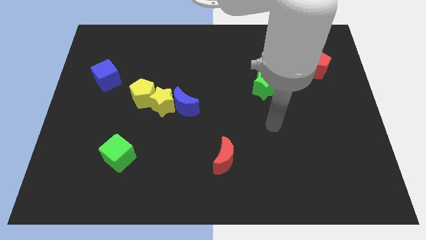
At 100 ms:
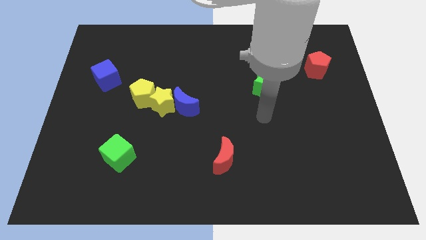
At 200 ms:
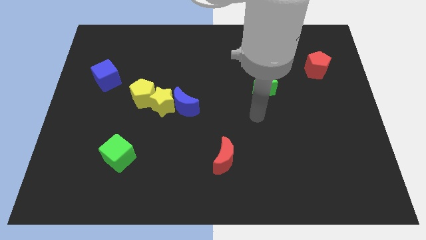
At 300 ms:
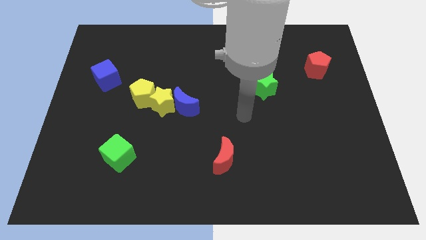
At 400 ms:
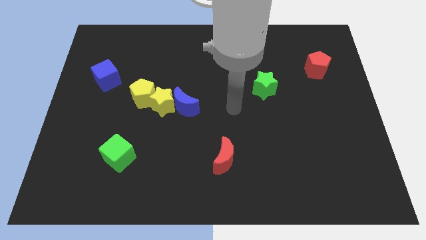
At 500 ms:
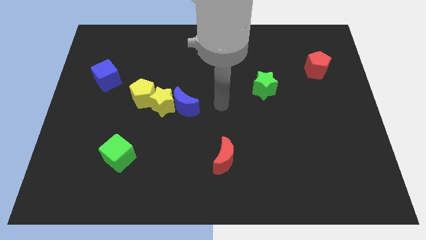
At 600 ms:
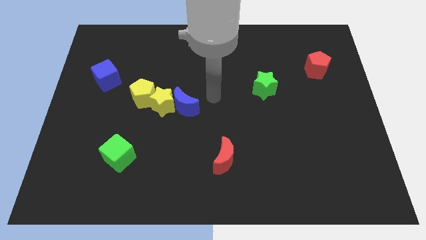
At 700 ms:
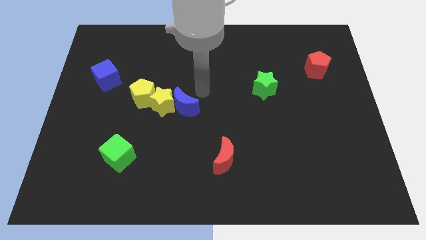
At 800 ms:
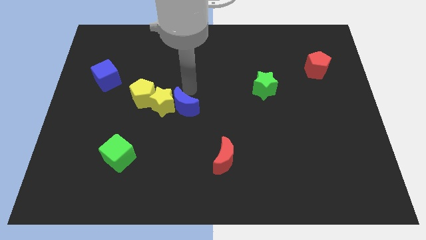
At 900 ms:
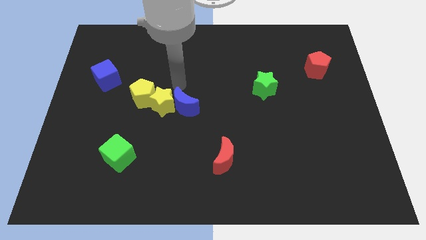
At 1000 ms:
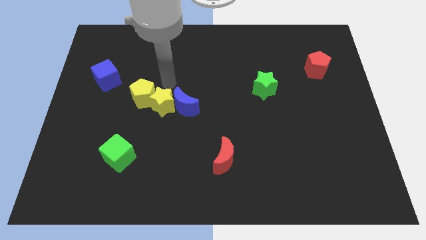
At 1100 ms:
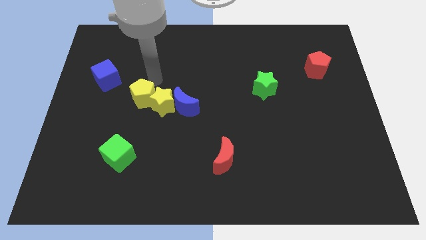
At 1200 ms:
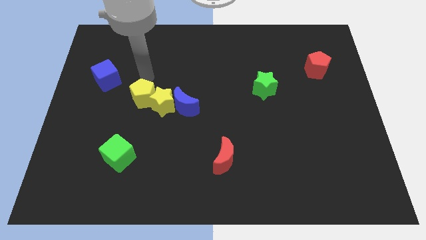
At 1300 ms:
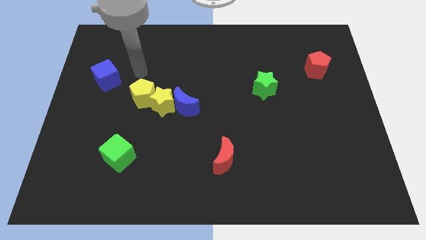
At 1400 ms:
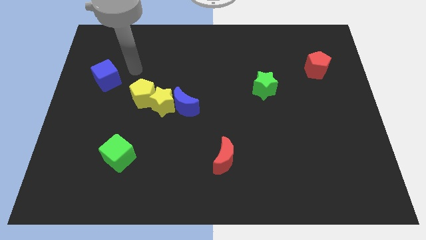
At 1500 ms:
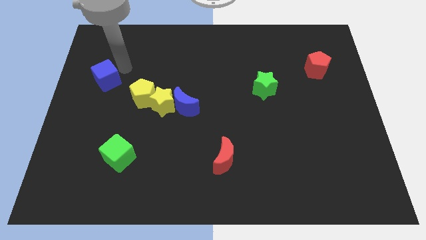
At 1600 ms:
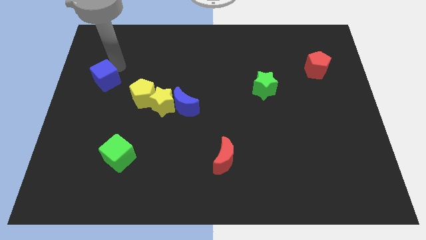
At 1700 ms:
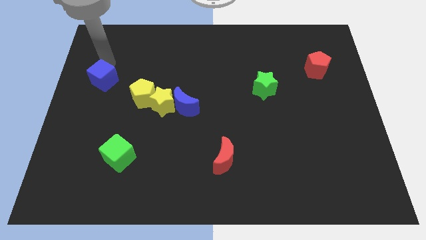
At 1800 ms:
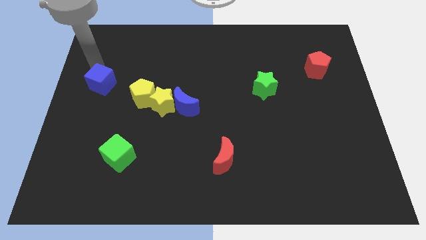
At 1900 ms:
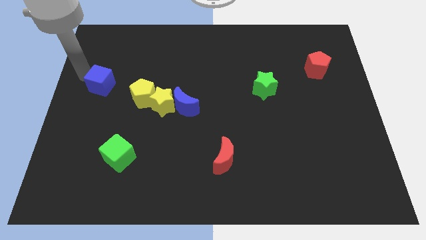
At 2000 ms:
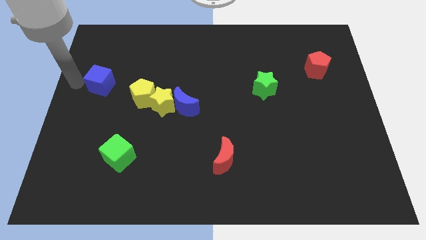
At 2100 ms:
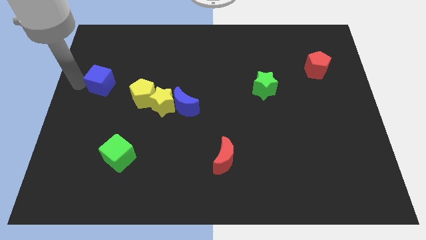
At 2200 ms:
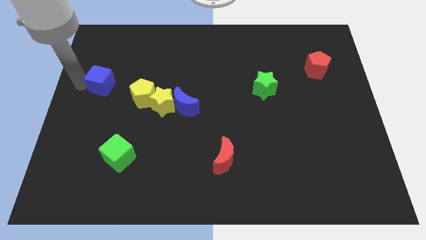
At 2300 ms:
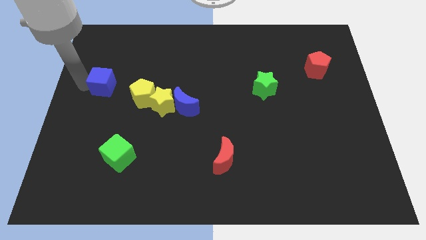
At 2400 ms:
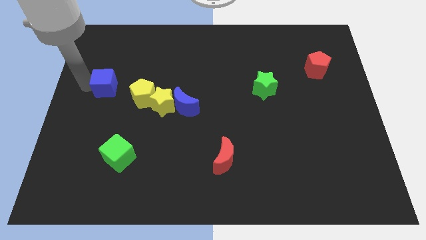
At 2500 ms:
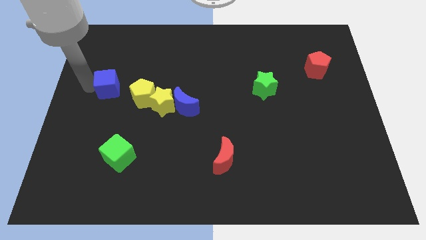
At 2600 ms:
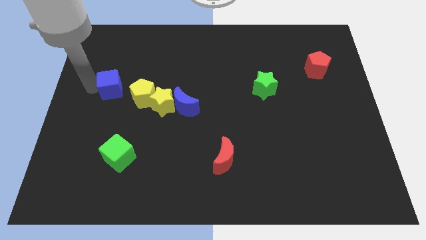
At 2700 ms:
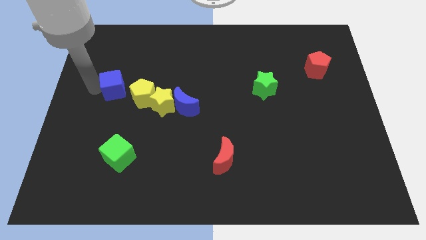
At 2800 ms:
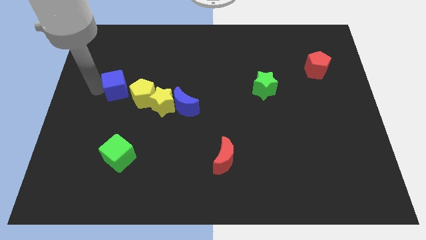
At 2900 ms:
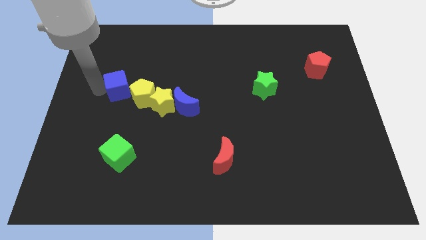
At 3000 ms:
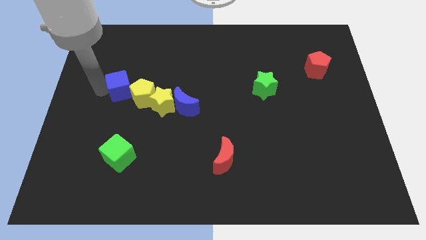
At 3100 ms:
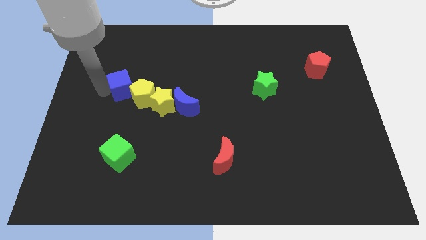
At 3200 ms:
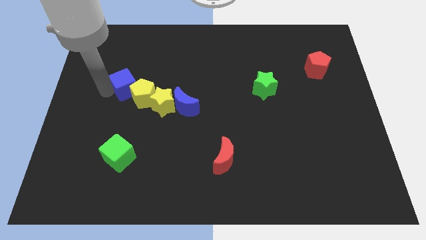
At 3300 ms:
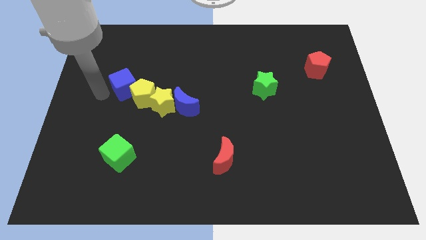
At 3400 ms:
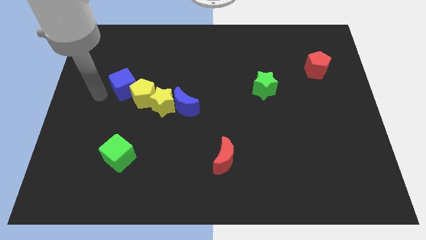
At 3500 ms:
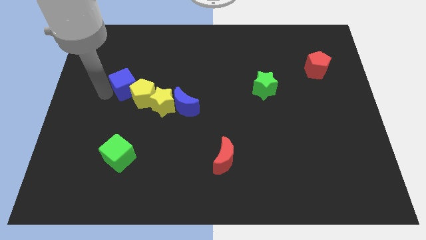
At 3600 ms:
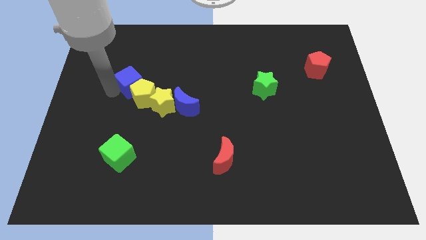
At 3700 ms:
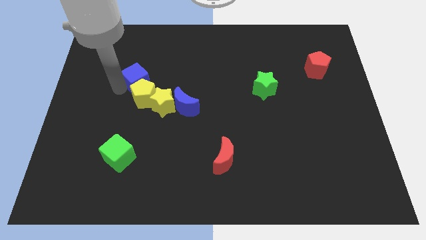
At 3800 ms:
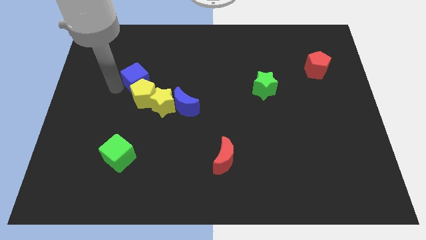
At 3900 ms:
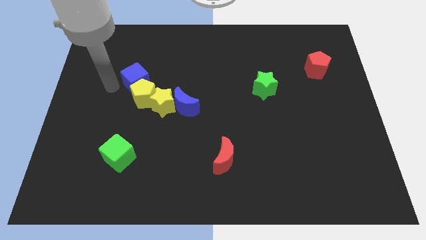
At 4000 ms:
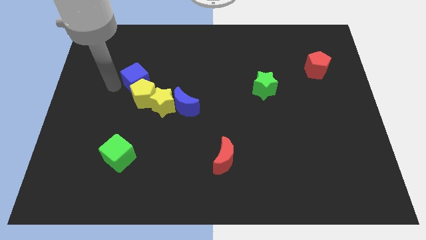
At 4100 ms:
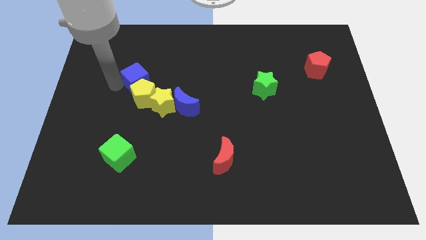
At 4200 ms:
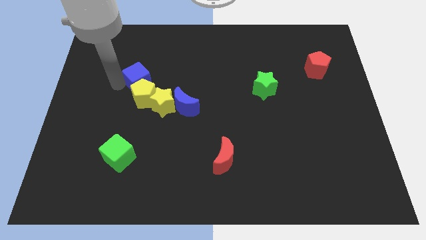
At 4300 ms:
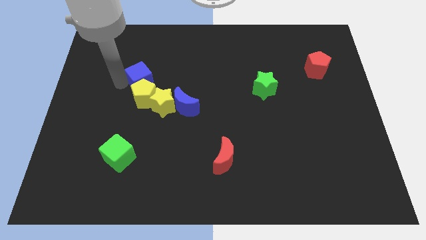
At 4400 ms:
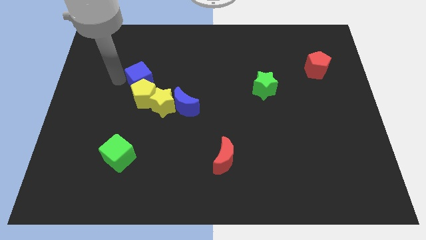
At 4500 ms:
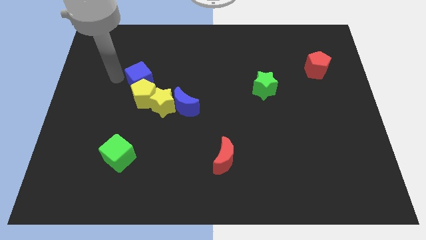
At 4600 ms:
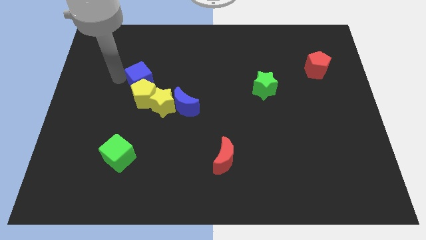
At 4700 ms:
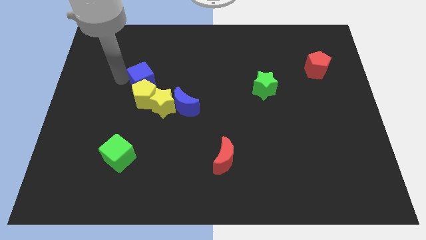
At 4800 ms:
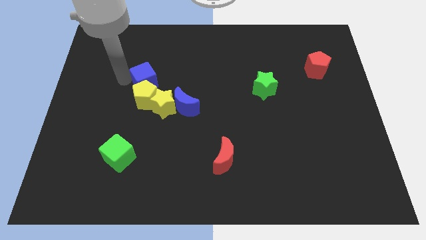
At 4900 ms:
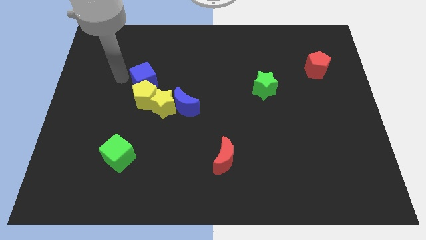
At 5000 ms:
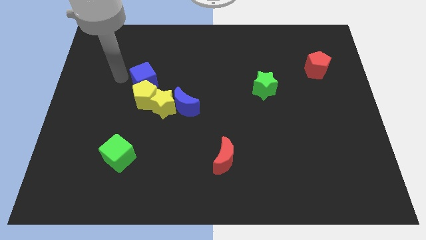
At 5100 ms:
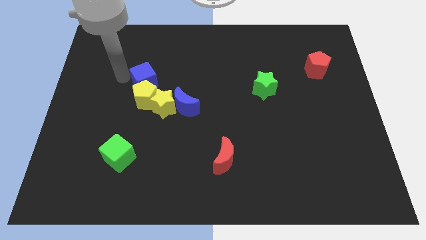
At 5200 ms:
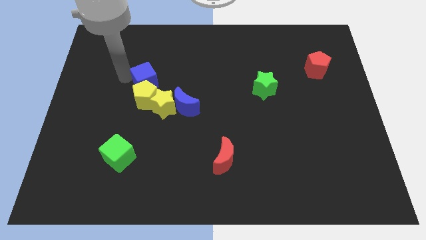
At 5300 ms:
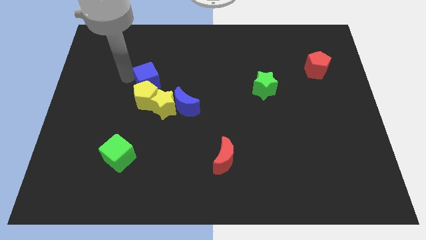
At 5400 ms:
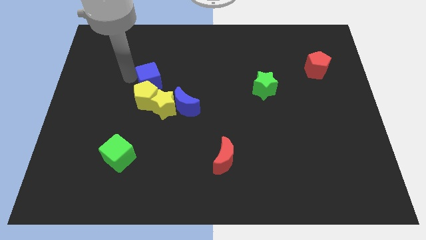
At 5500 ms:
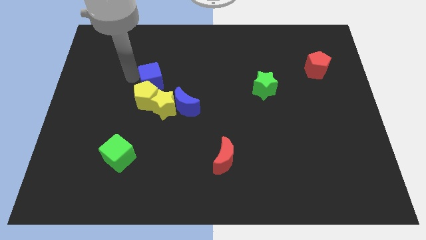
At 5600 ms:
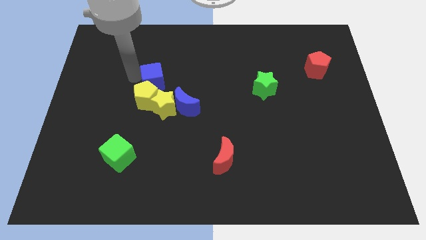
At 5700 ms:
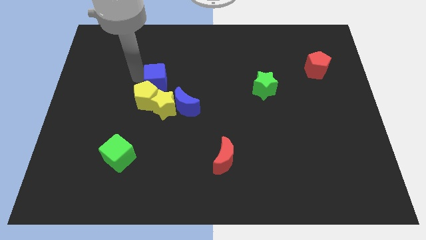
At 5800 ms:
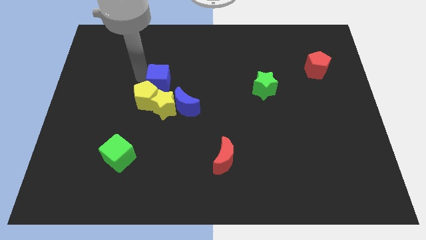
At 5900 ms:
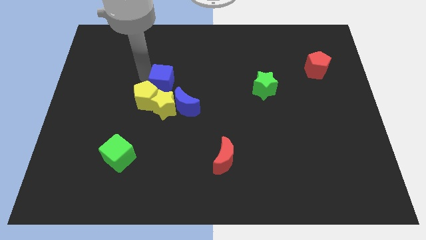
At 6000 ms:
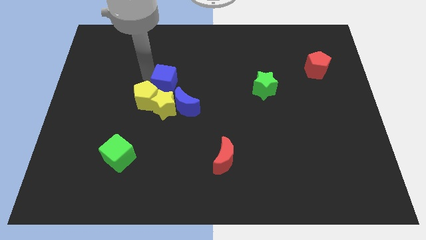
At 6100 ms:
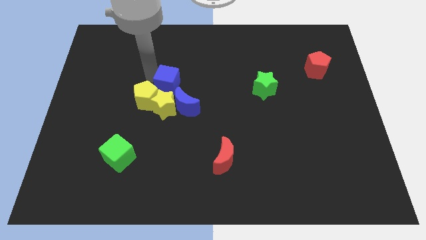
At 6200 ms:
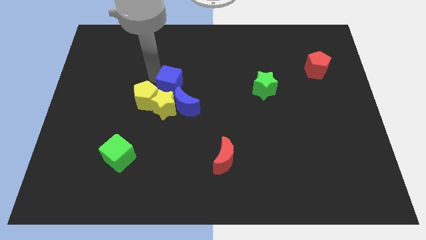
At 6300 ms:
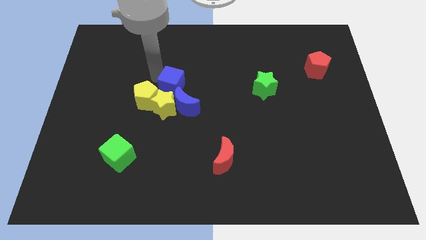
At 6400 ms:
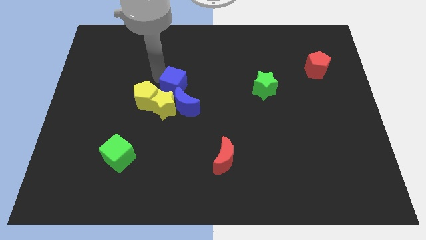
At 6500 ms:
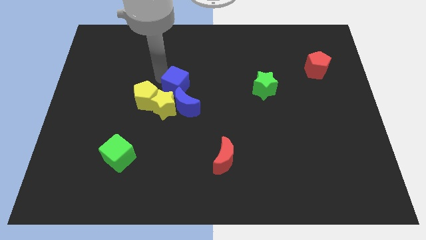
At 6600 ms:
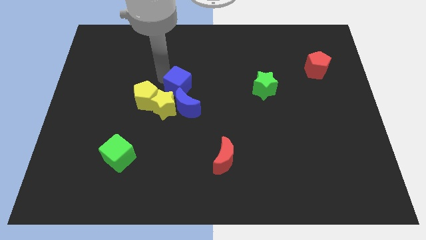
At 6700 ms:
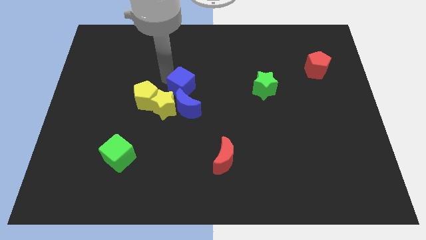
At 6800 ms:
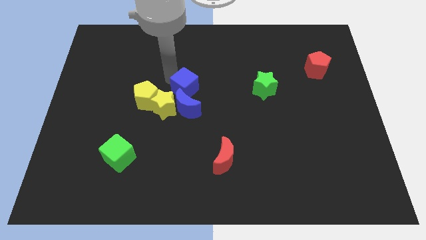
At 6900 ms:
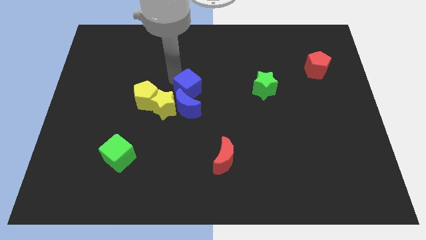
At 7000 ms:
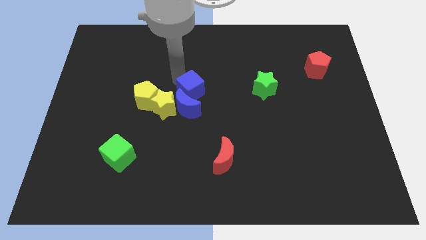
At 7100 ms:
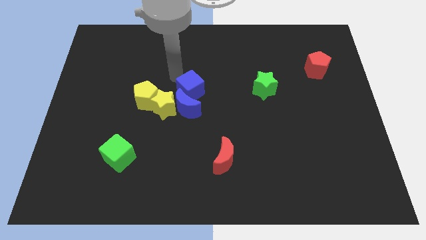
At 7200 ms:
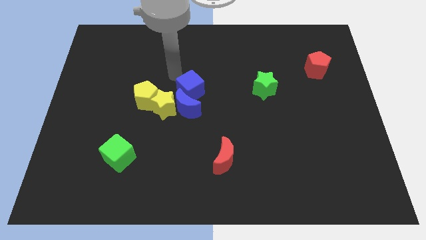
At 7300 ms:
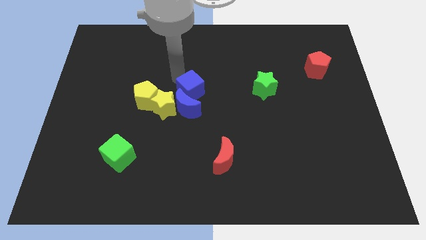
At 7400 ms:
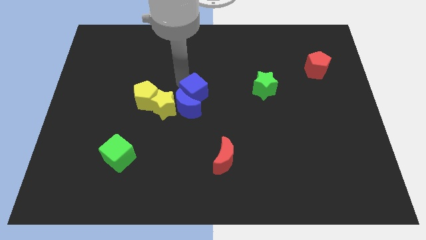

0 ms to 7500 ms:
put the blue cube to the right side of the yellow star
